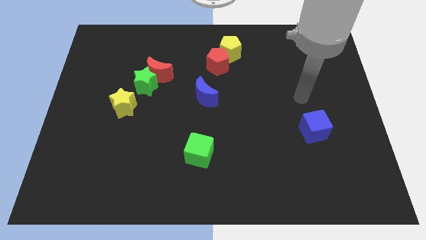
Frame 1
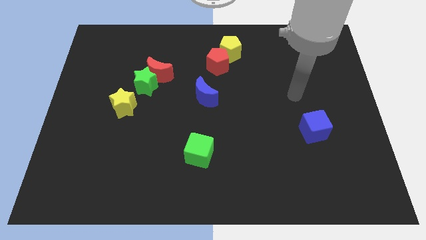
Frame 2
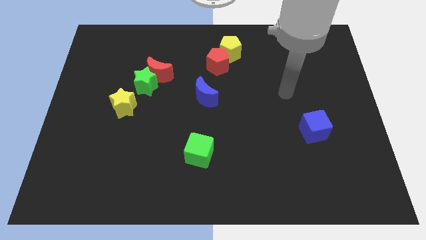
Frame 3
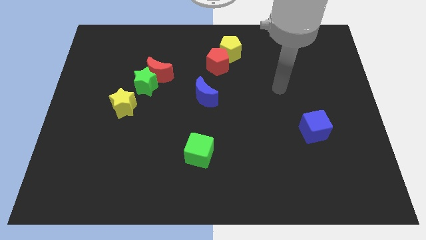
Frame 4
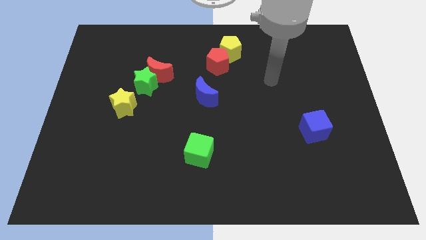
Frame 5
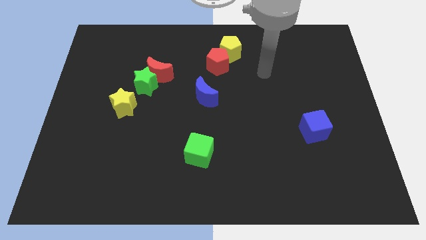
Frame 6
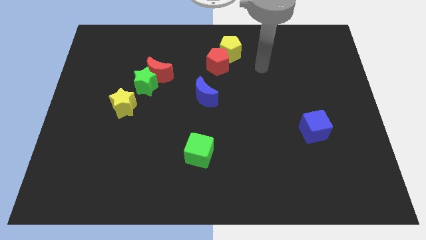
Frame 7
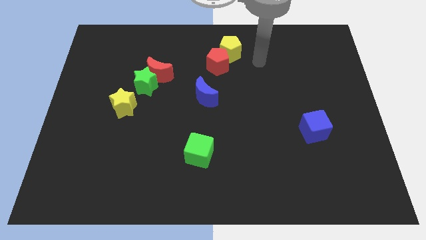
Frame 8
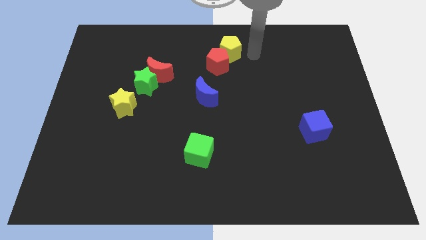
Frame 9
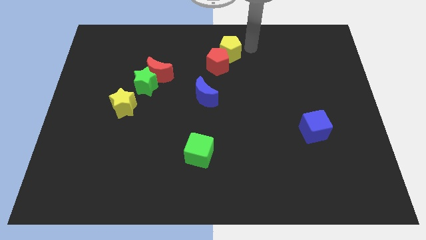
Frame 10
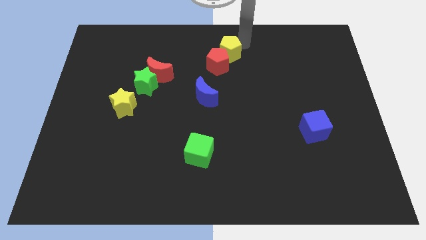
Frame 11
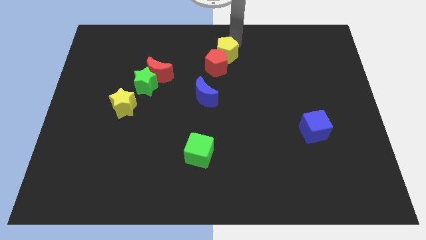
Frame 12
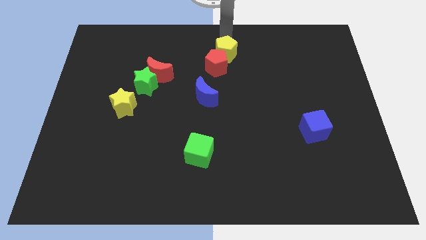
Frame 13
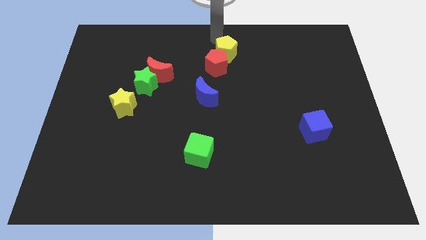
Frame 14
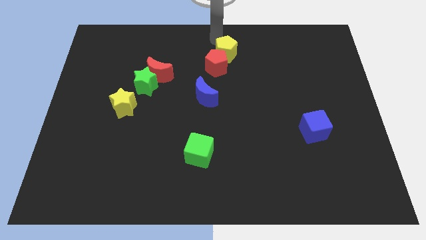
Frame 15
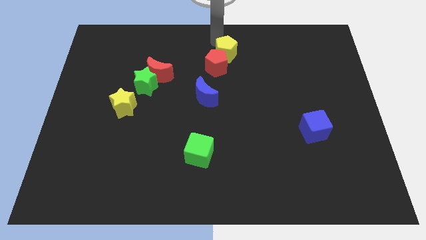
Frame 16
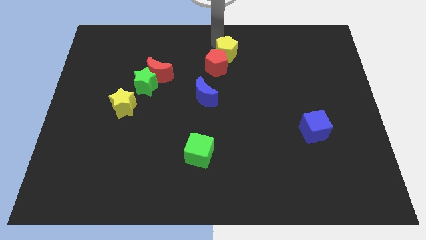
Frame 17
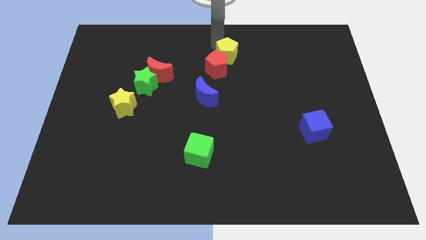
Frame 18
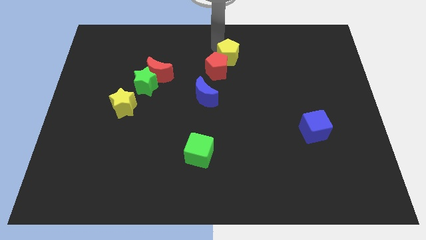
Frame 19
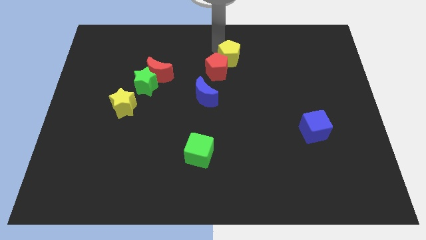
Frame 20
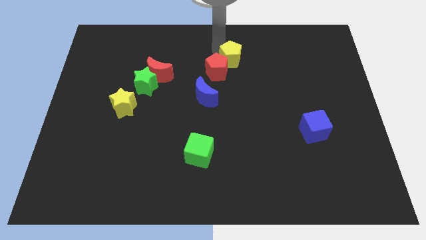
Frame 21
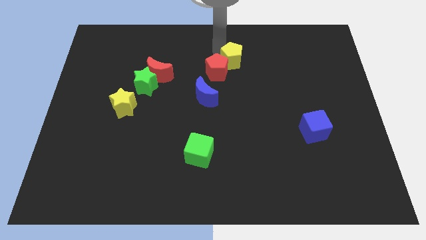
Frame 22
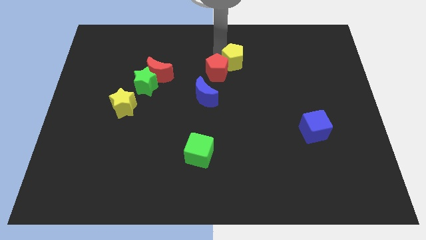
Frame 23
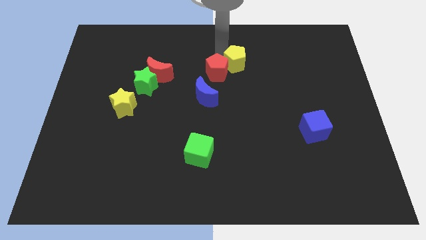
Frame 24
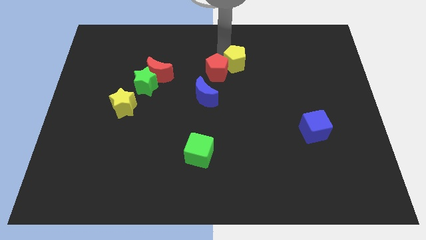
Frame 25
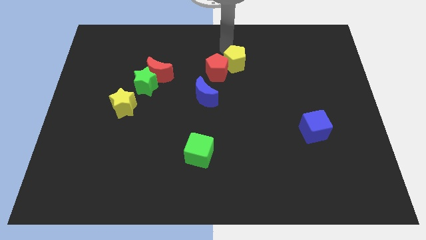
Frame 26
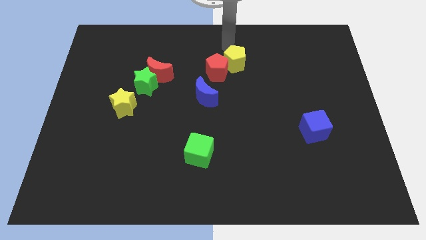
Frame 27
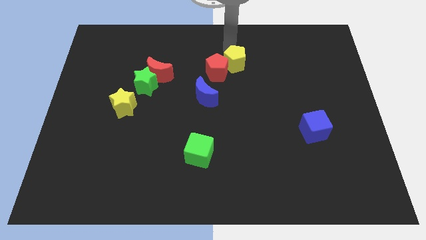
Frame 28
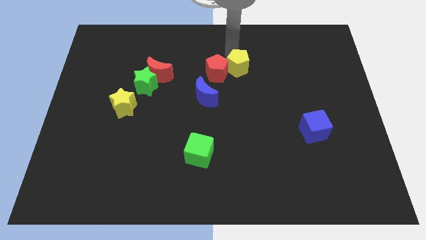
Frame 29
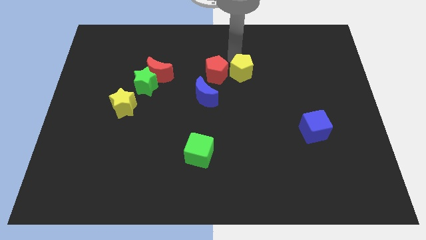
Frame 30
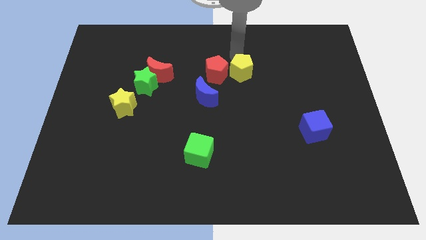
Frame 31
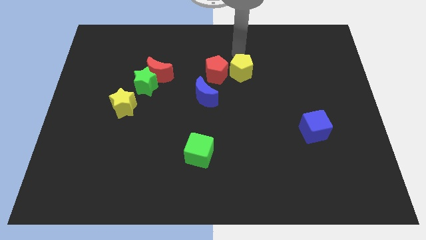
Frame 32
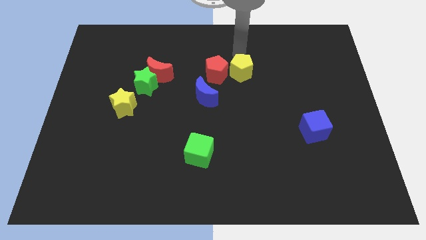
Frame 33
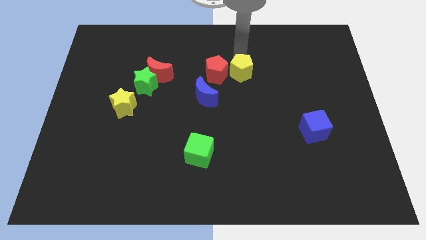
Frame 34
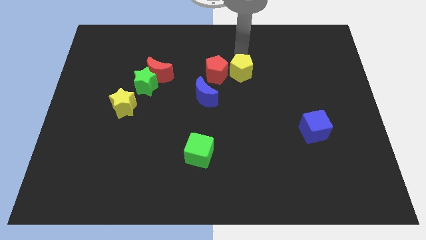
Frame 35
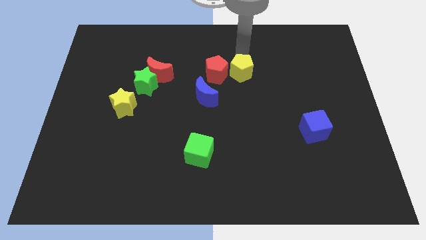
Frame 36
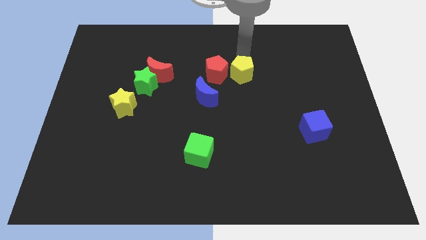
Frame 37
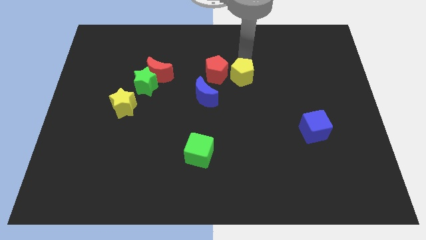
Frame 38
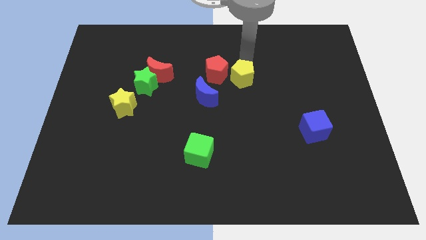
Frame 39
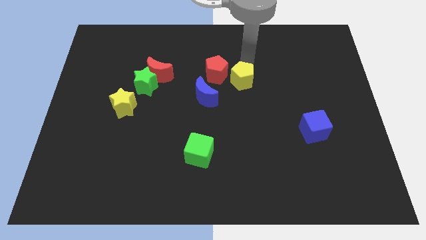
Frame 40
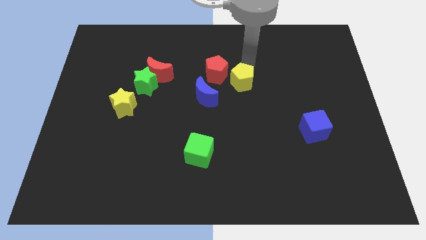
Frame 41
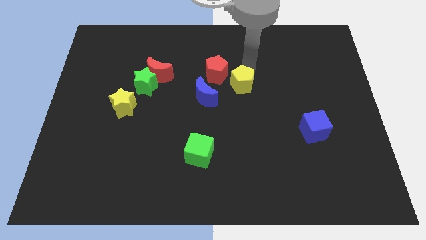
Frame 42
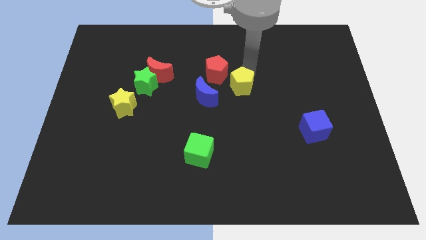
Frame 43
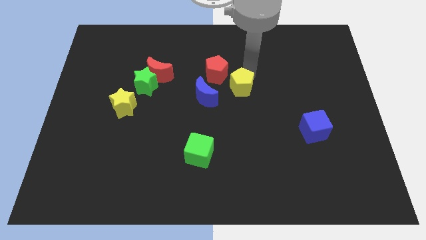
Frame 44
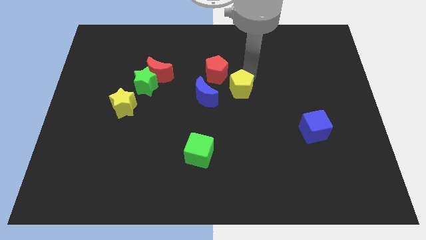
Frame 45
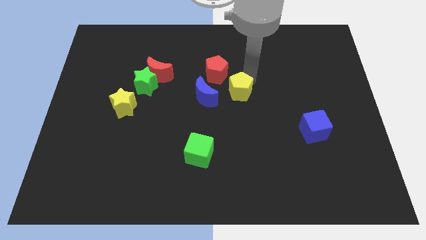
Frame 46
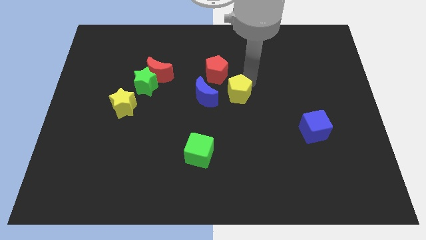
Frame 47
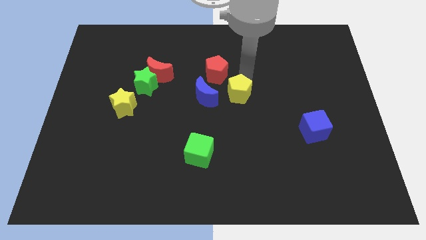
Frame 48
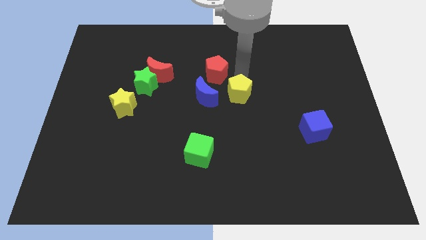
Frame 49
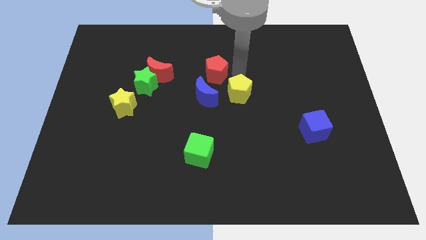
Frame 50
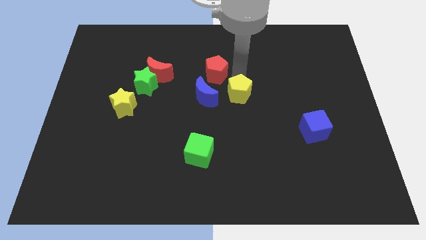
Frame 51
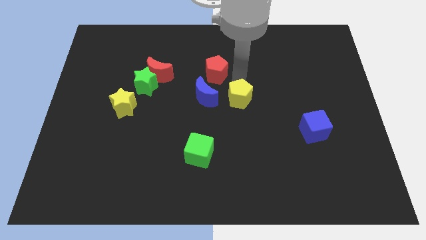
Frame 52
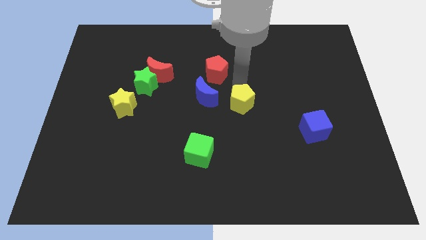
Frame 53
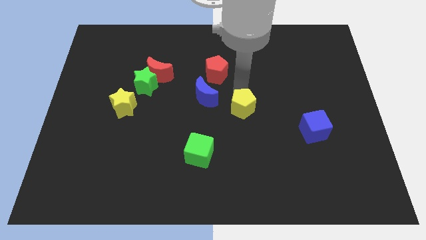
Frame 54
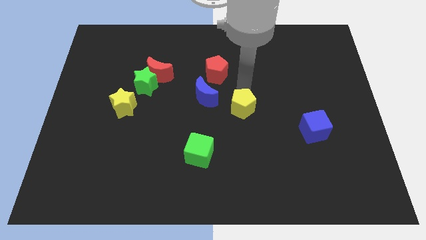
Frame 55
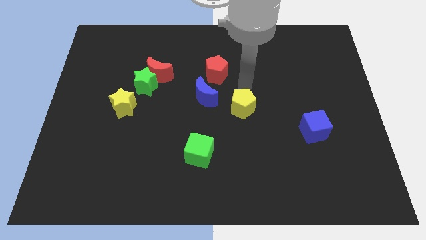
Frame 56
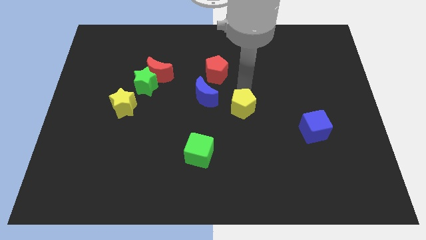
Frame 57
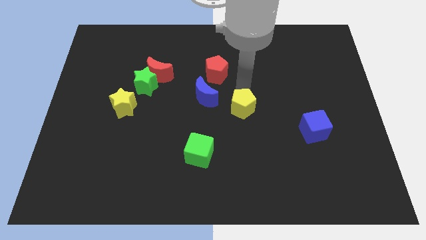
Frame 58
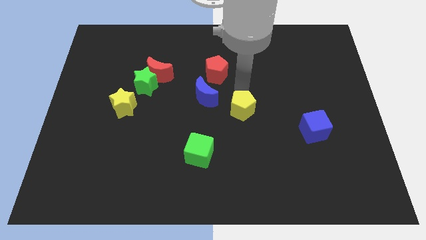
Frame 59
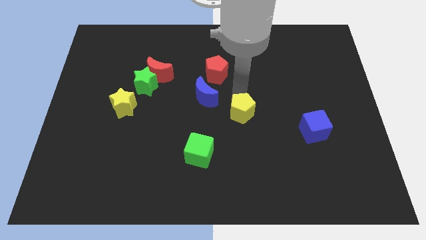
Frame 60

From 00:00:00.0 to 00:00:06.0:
move the yellow pentagon downwards

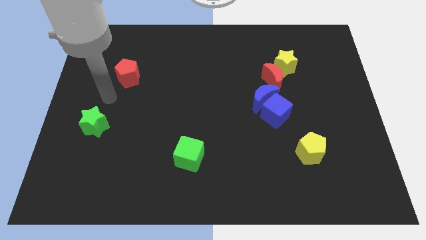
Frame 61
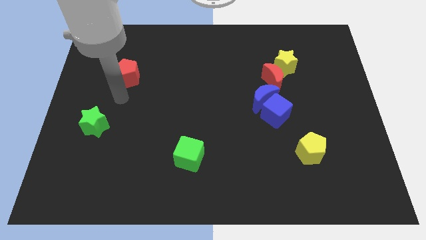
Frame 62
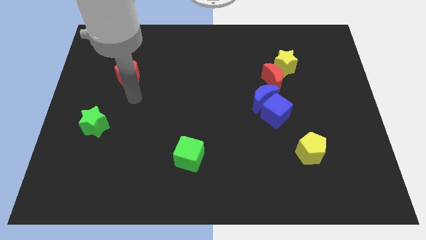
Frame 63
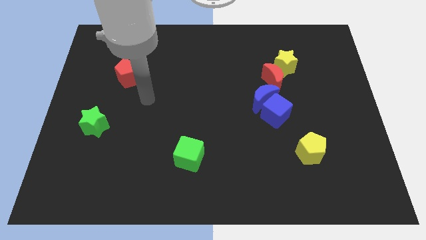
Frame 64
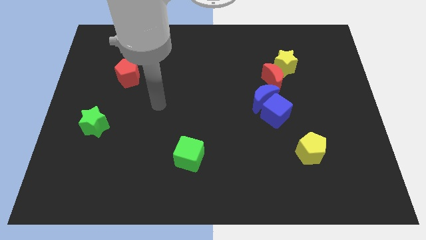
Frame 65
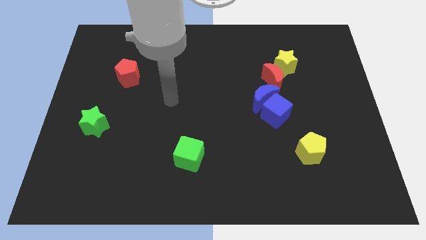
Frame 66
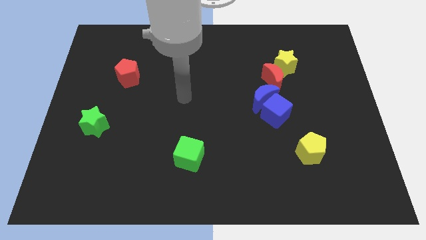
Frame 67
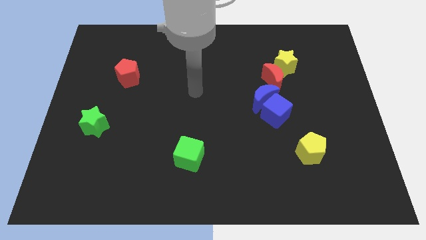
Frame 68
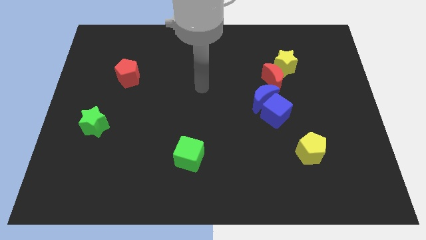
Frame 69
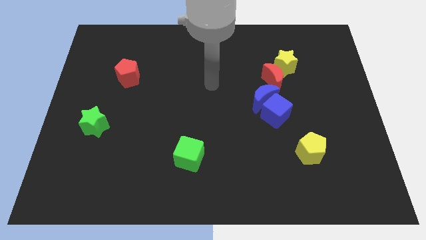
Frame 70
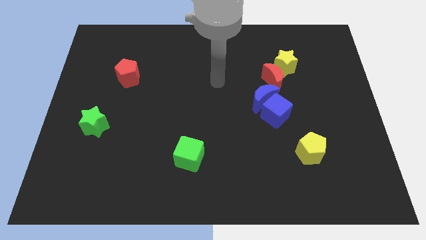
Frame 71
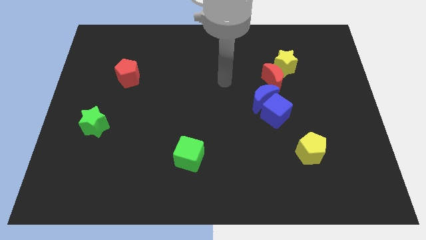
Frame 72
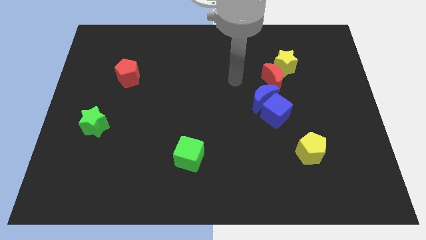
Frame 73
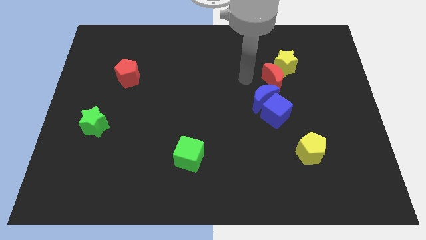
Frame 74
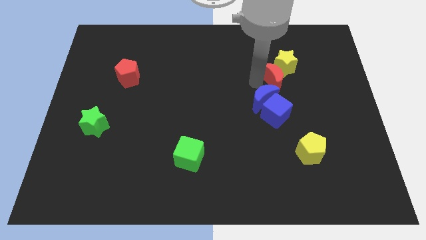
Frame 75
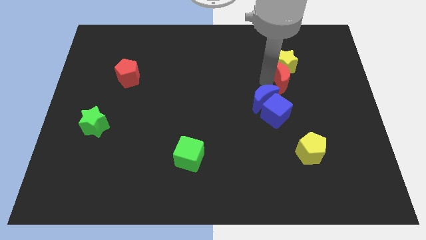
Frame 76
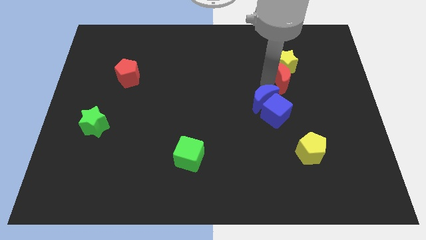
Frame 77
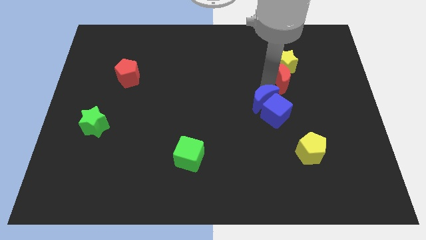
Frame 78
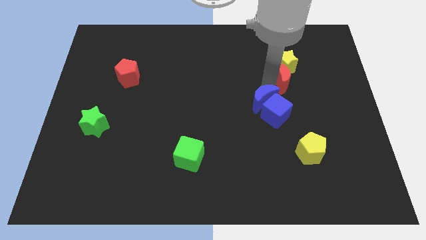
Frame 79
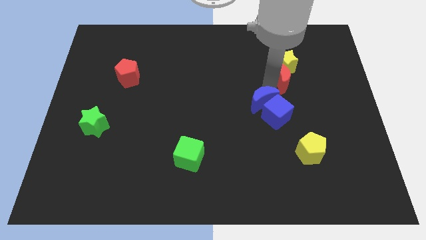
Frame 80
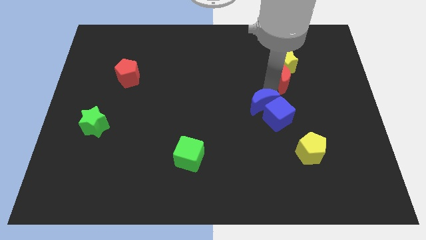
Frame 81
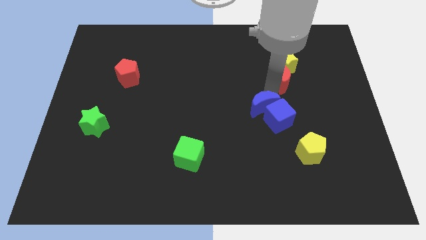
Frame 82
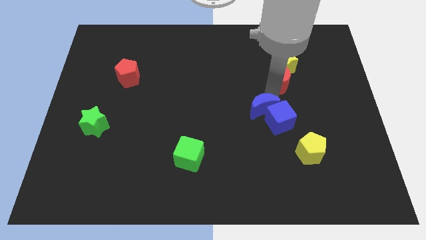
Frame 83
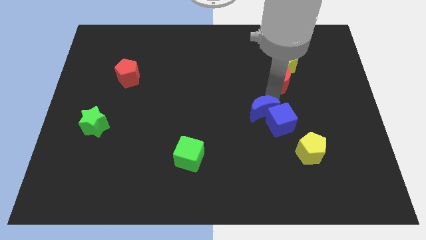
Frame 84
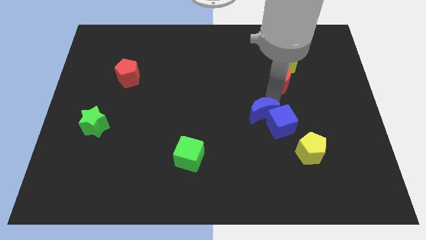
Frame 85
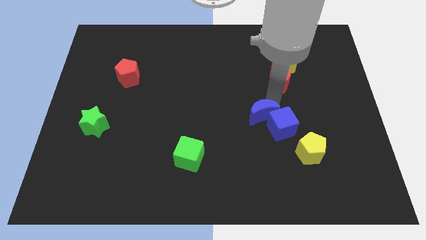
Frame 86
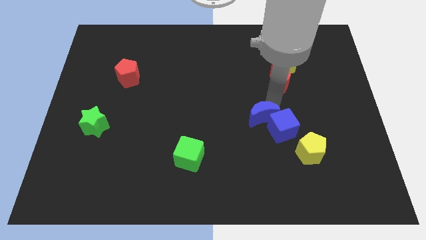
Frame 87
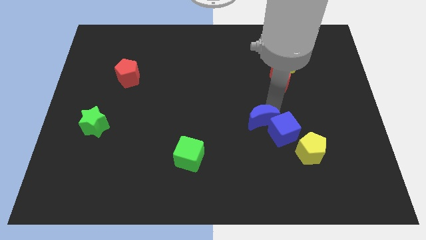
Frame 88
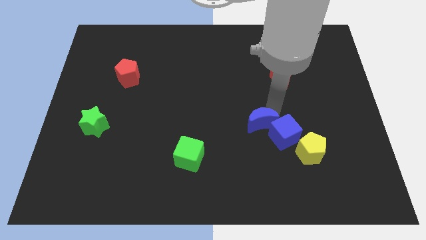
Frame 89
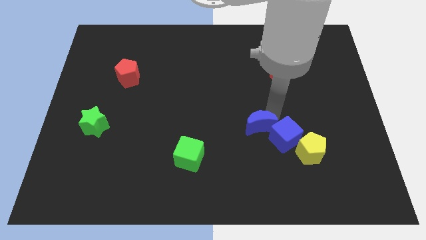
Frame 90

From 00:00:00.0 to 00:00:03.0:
move the blue moon downwards somewhat
